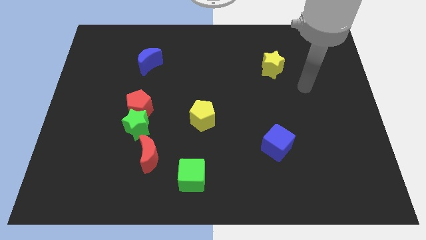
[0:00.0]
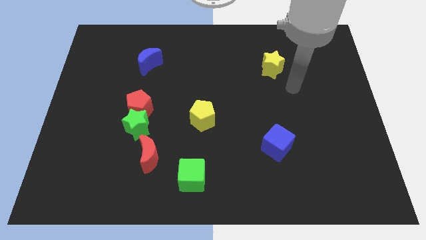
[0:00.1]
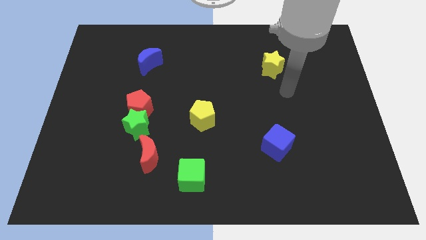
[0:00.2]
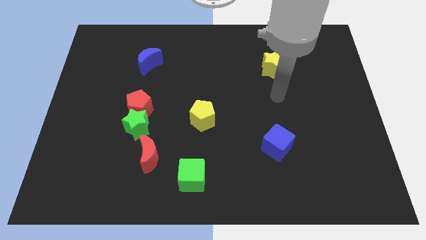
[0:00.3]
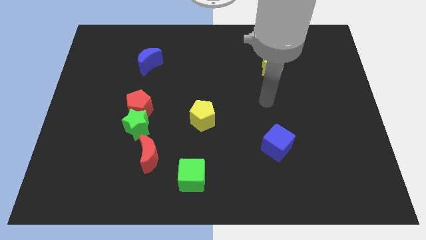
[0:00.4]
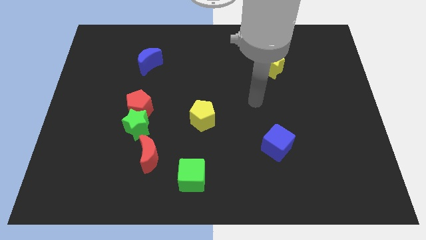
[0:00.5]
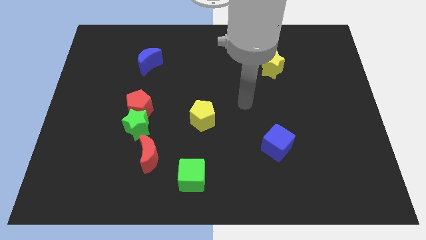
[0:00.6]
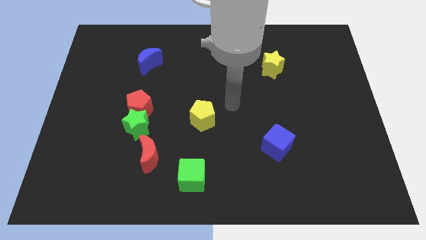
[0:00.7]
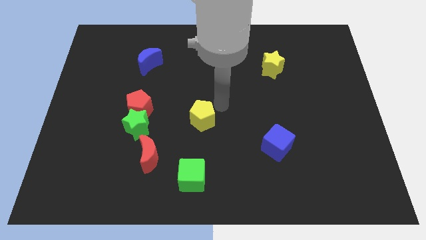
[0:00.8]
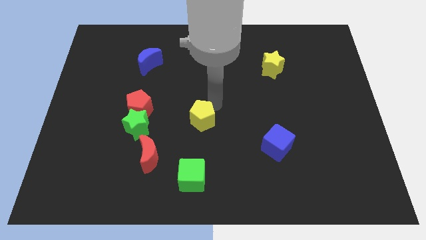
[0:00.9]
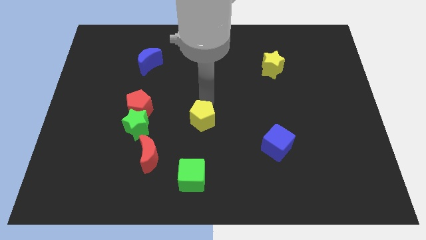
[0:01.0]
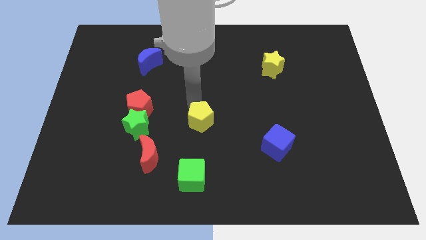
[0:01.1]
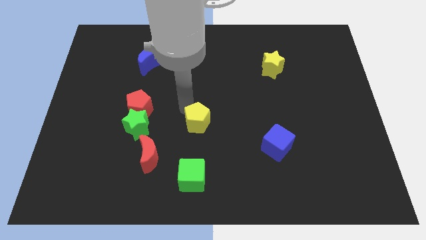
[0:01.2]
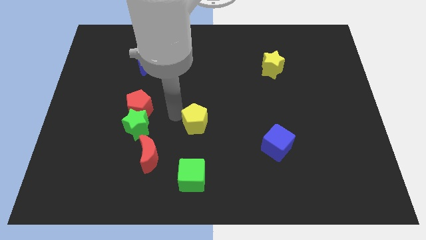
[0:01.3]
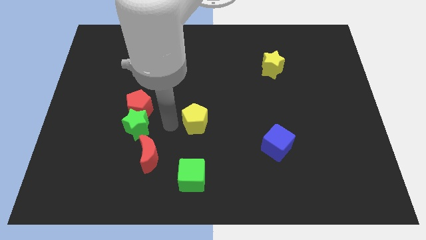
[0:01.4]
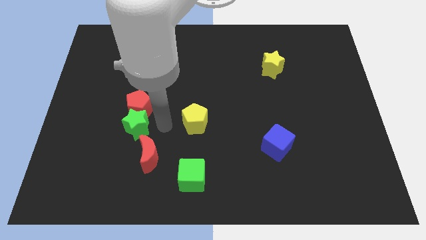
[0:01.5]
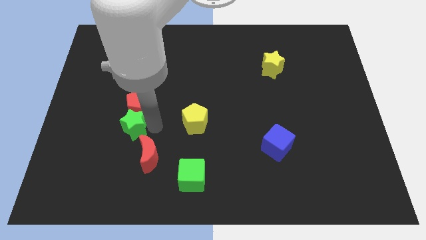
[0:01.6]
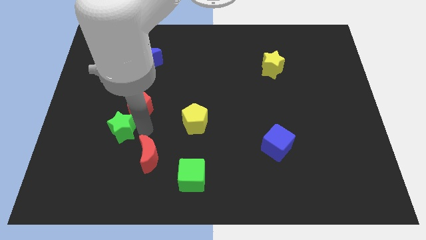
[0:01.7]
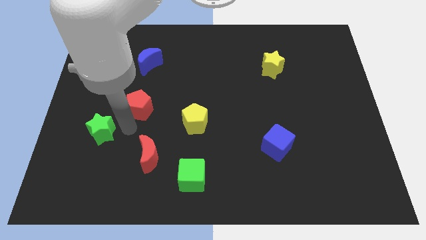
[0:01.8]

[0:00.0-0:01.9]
pull the red pentagon apart from the green star

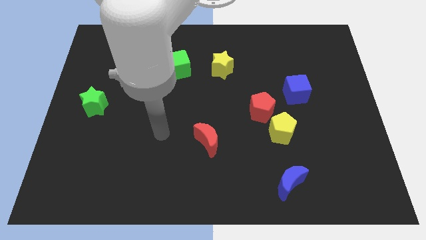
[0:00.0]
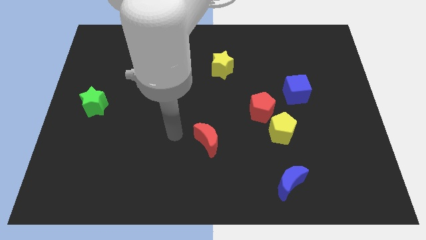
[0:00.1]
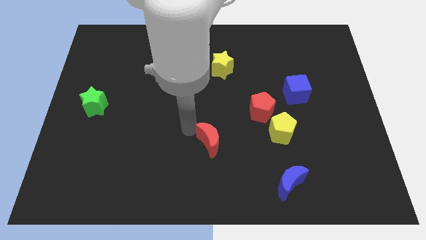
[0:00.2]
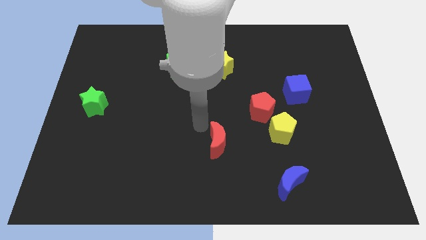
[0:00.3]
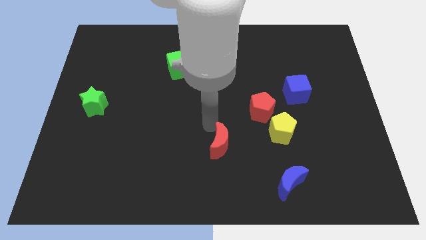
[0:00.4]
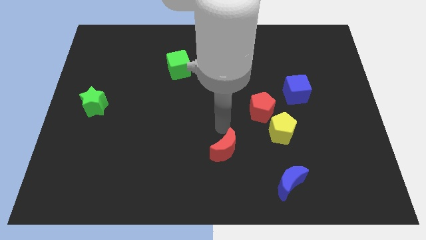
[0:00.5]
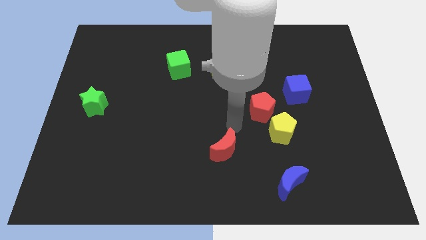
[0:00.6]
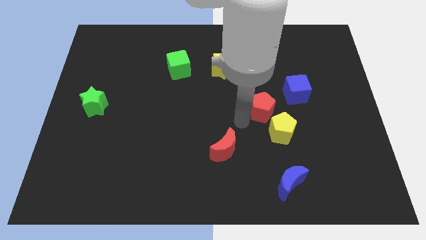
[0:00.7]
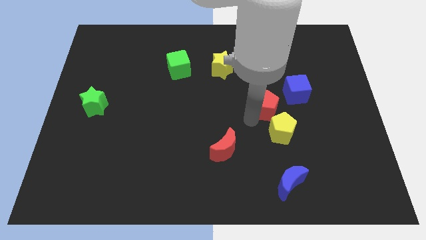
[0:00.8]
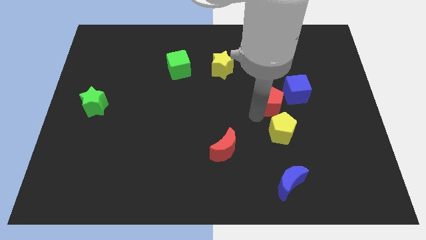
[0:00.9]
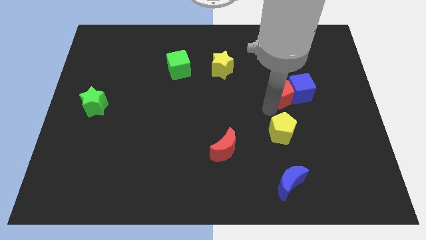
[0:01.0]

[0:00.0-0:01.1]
pull the yellow pentagon apart from the red pentagon

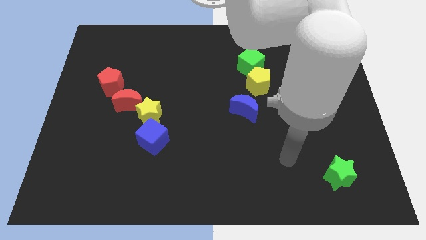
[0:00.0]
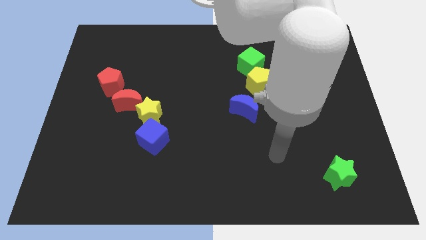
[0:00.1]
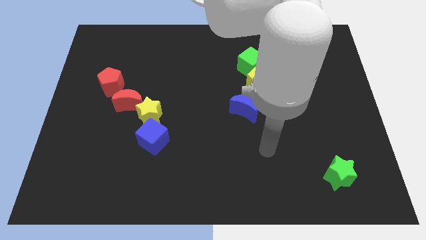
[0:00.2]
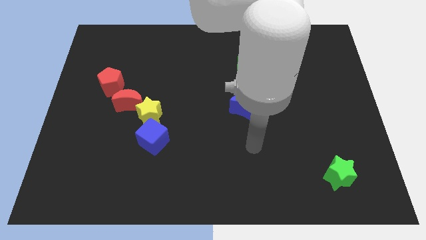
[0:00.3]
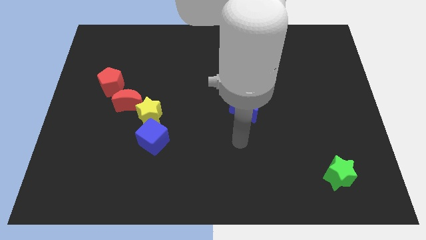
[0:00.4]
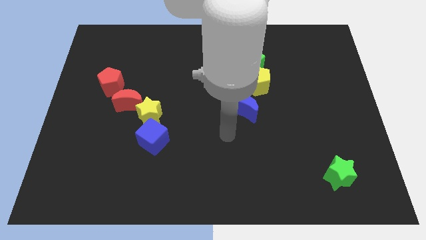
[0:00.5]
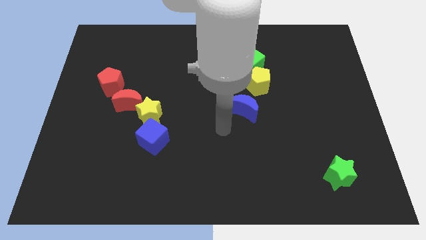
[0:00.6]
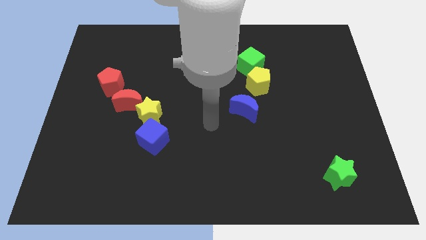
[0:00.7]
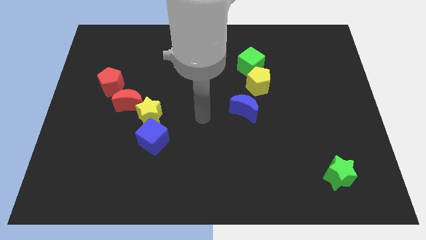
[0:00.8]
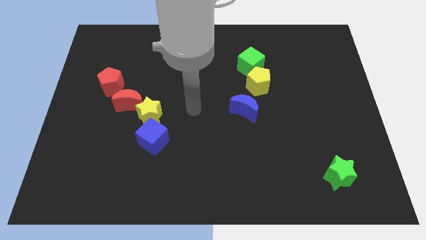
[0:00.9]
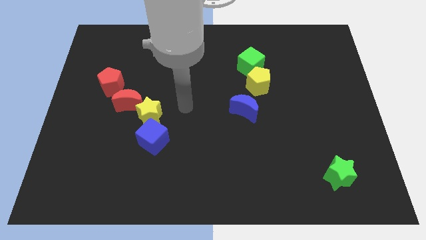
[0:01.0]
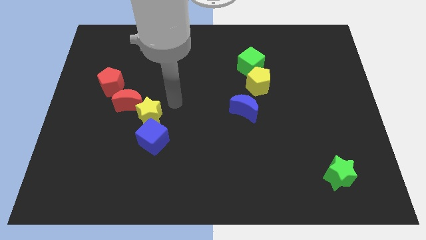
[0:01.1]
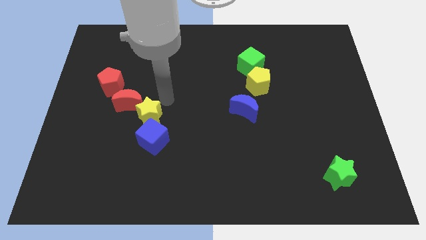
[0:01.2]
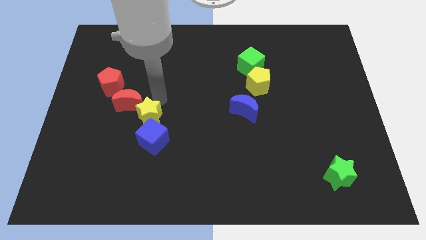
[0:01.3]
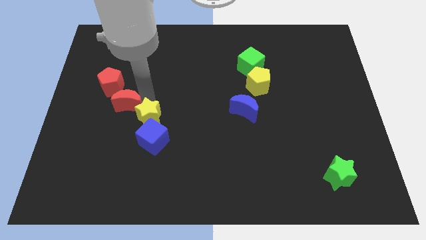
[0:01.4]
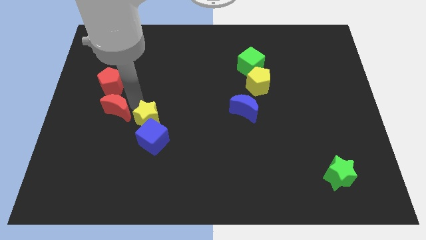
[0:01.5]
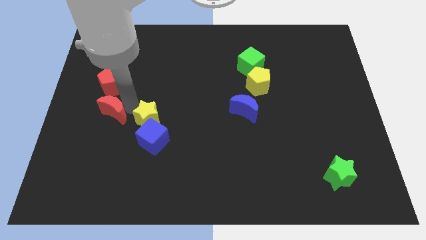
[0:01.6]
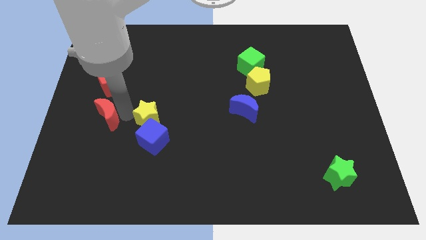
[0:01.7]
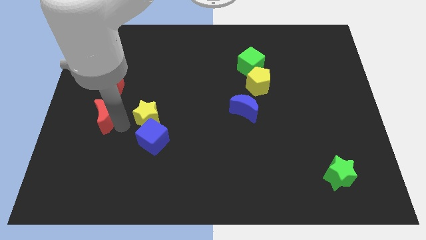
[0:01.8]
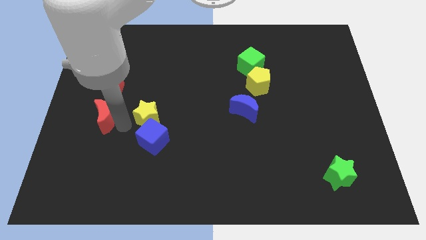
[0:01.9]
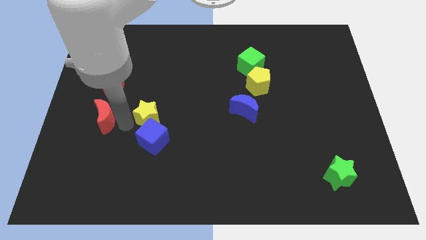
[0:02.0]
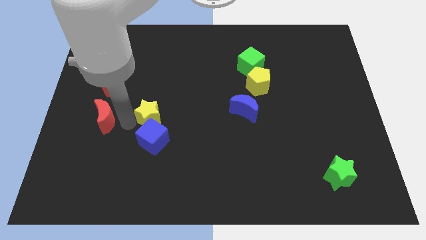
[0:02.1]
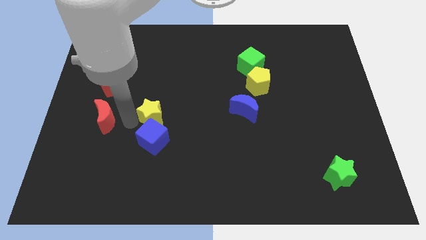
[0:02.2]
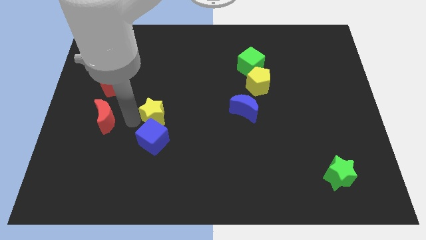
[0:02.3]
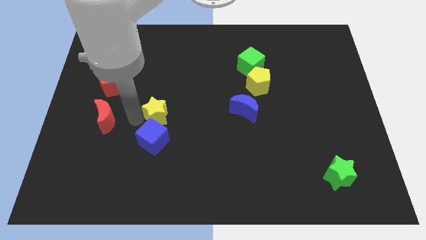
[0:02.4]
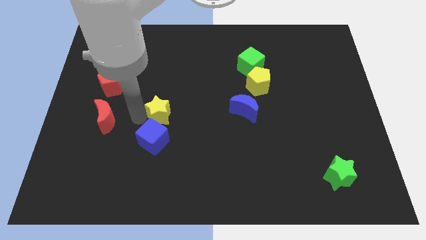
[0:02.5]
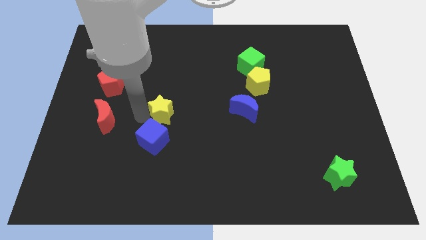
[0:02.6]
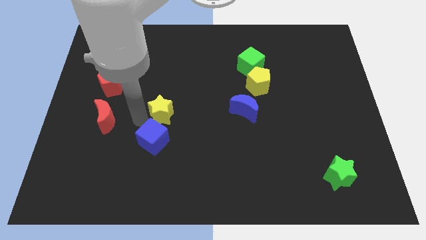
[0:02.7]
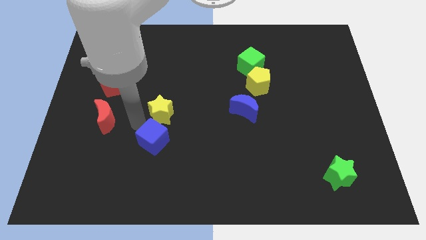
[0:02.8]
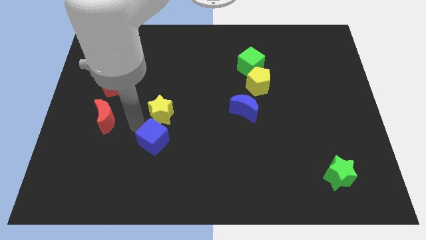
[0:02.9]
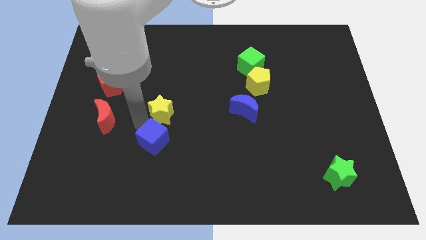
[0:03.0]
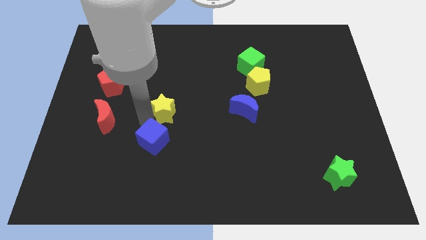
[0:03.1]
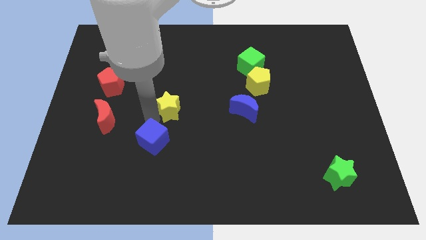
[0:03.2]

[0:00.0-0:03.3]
pull the yellow star apart from the red moon and blue cube

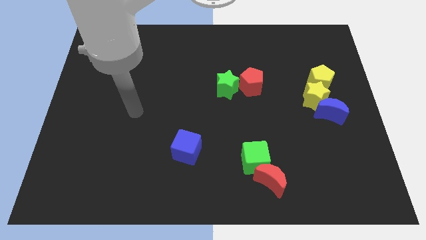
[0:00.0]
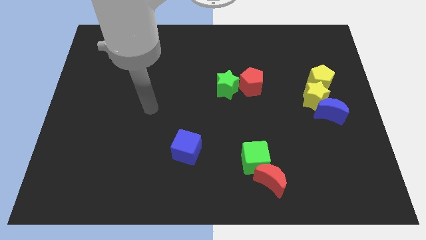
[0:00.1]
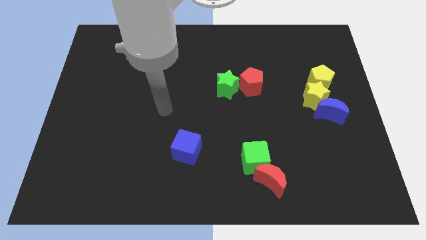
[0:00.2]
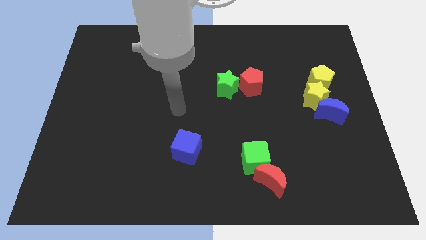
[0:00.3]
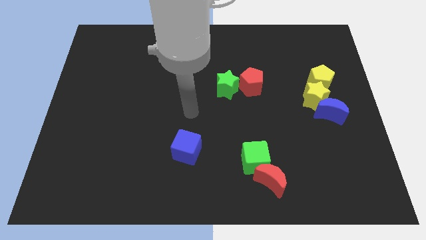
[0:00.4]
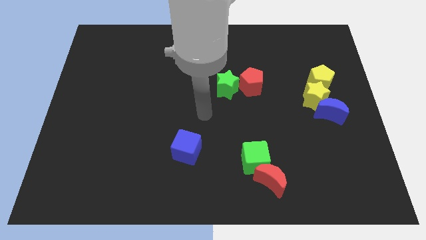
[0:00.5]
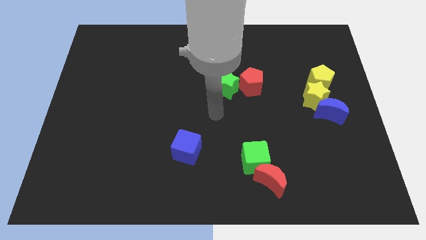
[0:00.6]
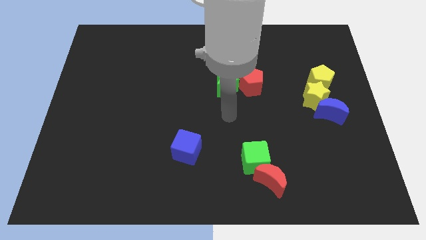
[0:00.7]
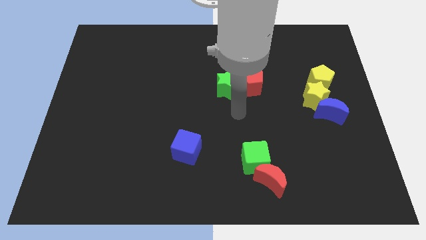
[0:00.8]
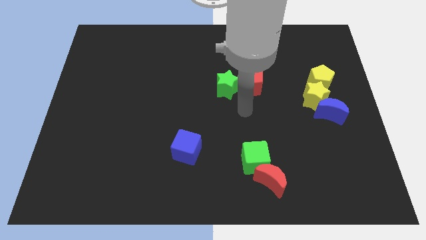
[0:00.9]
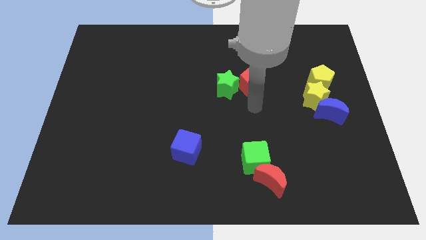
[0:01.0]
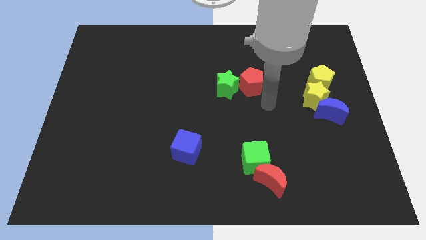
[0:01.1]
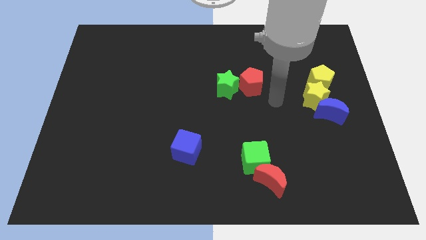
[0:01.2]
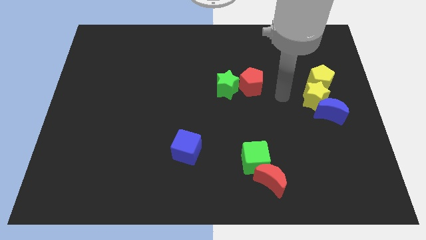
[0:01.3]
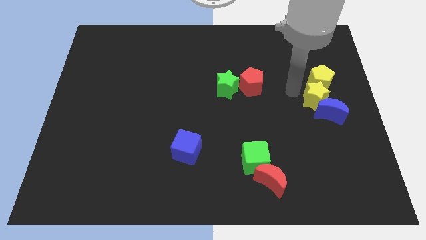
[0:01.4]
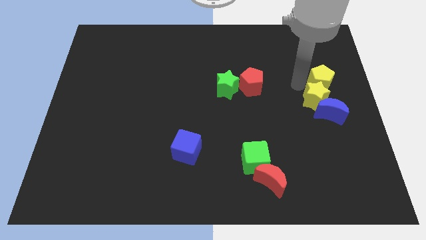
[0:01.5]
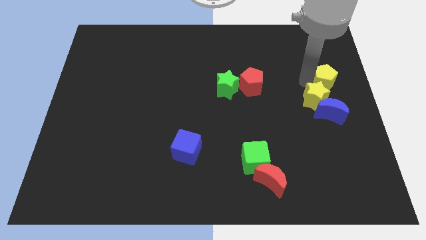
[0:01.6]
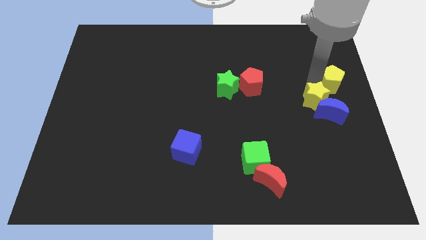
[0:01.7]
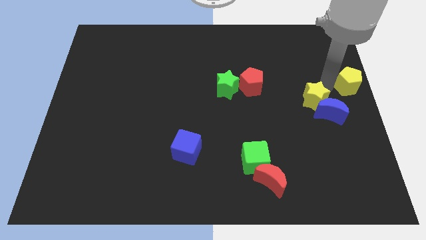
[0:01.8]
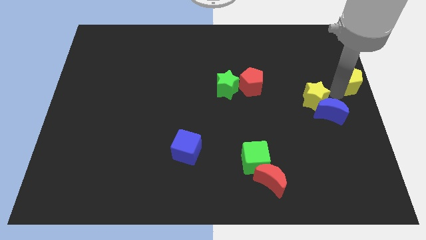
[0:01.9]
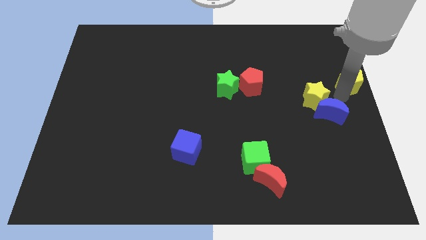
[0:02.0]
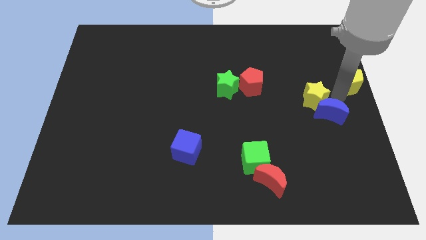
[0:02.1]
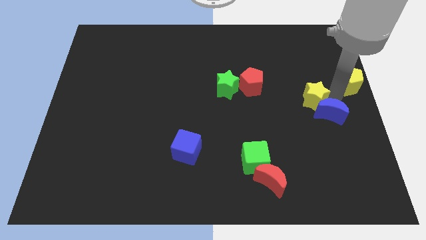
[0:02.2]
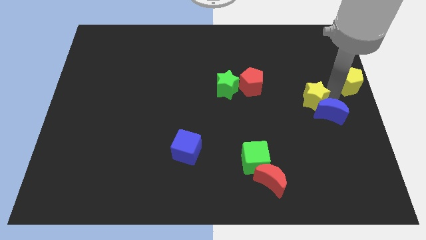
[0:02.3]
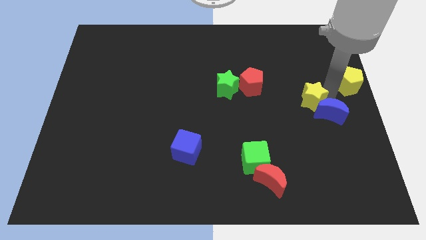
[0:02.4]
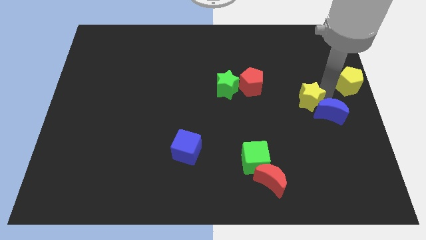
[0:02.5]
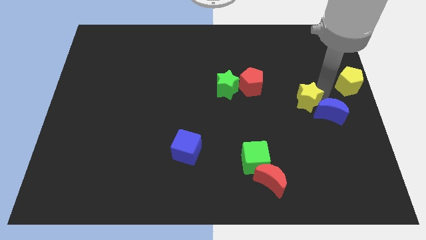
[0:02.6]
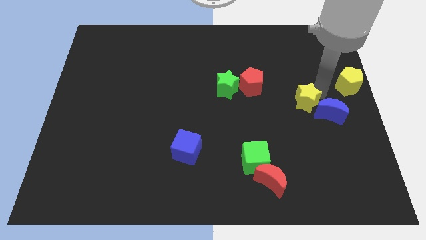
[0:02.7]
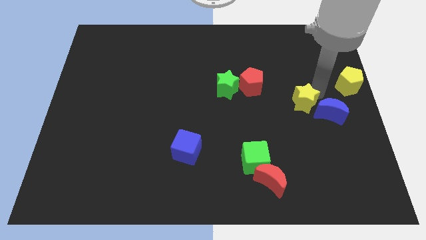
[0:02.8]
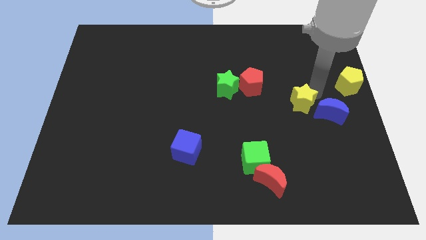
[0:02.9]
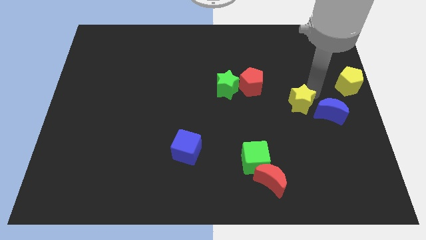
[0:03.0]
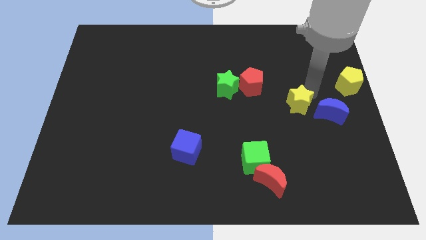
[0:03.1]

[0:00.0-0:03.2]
pull the yellow star apart from the blue moon and yellow pentagon
